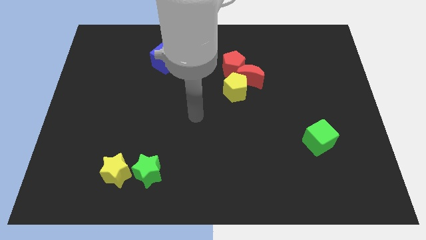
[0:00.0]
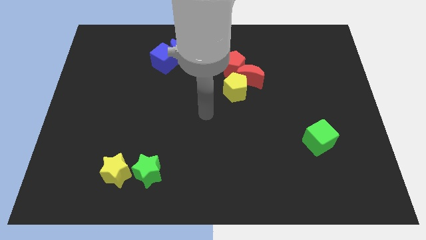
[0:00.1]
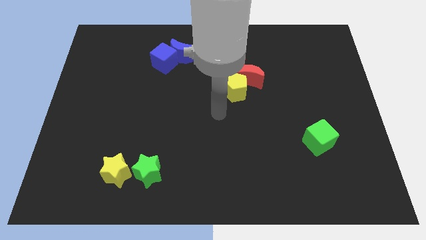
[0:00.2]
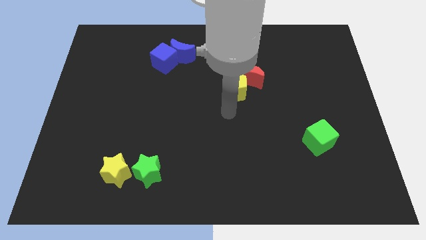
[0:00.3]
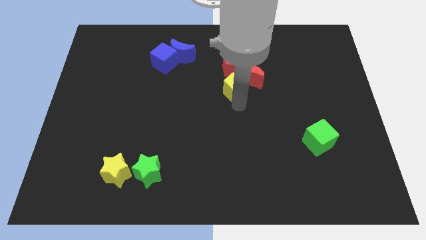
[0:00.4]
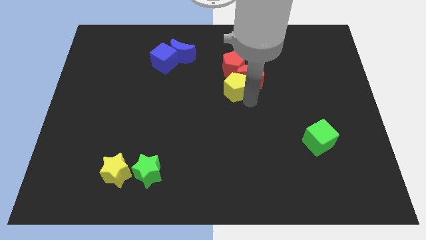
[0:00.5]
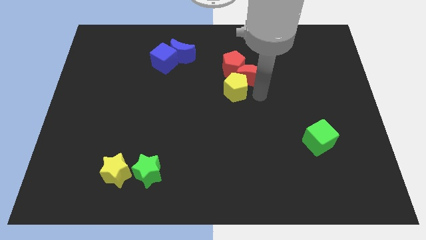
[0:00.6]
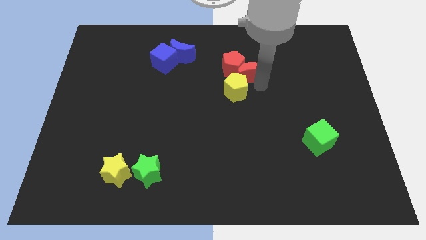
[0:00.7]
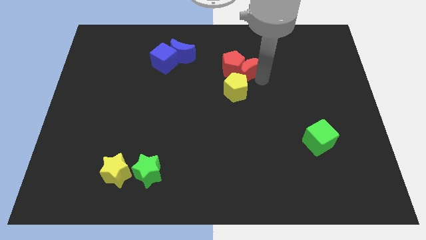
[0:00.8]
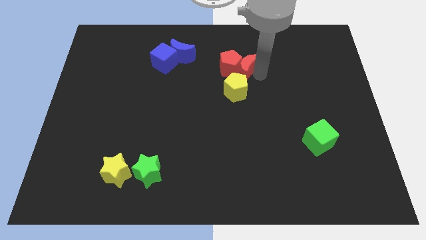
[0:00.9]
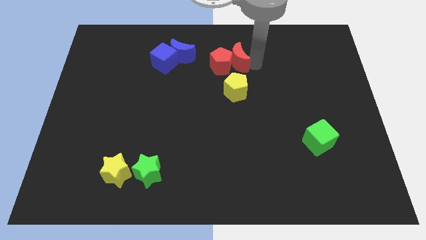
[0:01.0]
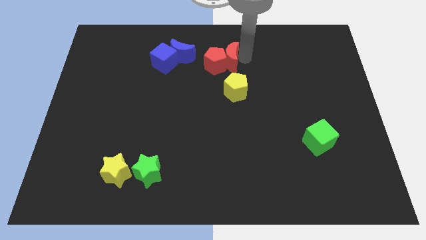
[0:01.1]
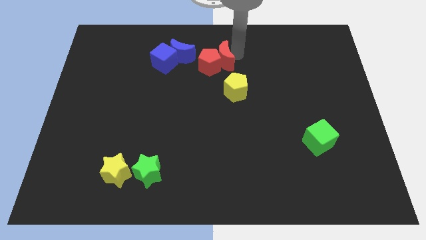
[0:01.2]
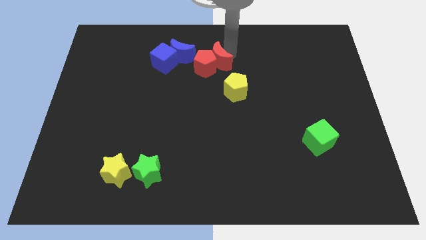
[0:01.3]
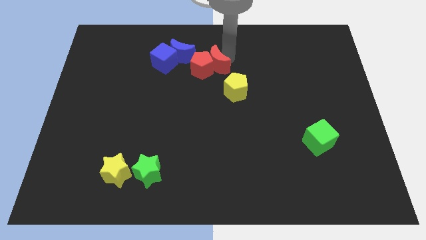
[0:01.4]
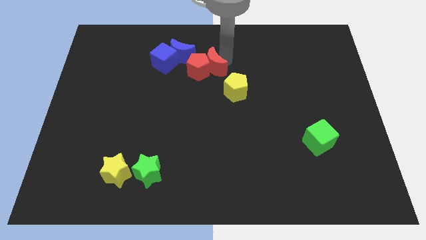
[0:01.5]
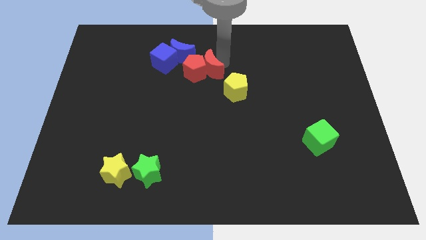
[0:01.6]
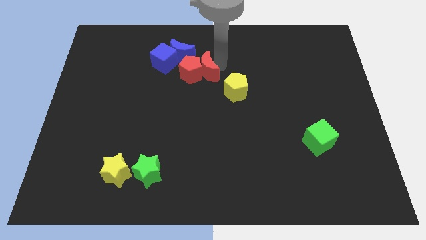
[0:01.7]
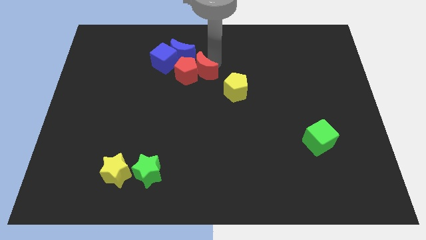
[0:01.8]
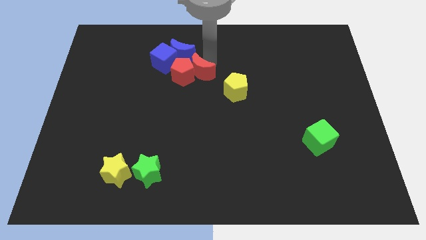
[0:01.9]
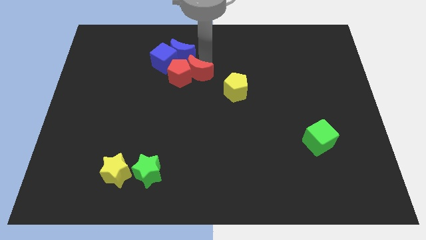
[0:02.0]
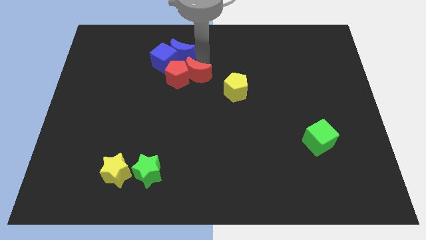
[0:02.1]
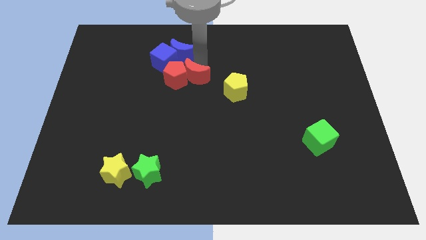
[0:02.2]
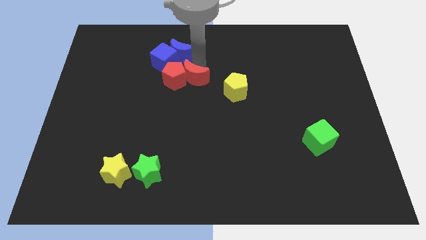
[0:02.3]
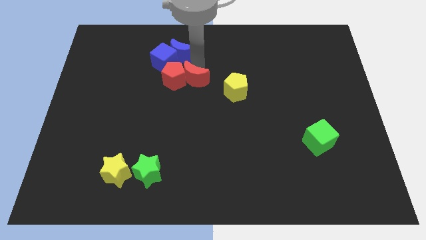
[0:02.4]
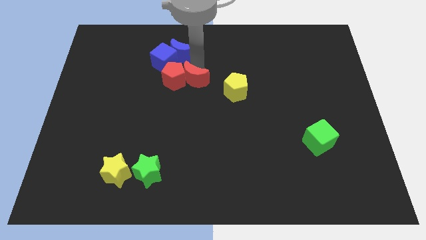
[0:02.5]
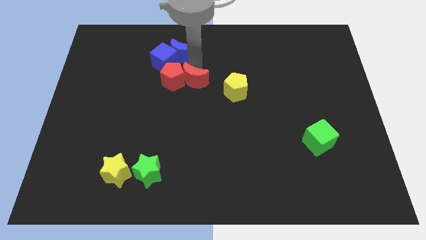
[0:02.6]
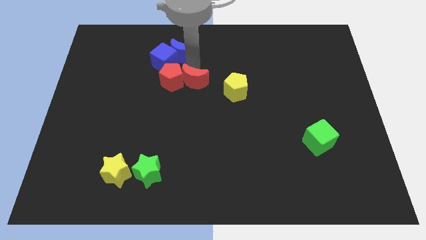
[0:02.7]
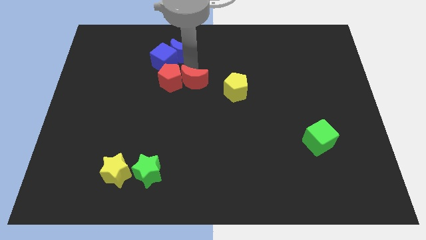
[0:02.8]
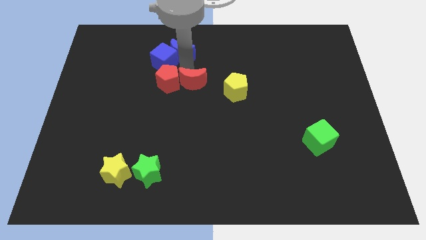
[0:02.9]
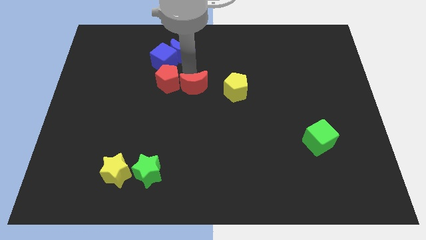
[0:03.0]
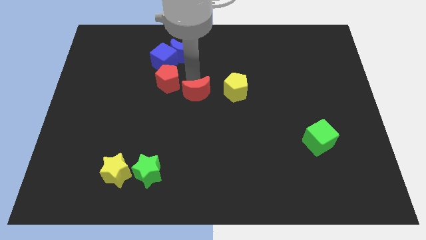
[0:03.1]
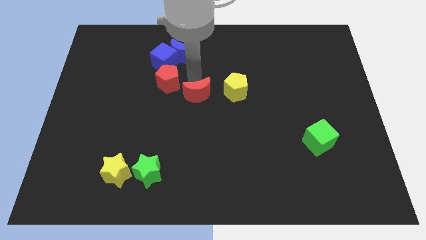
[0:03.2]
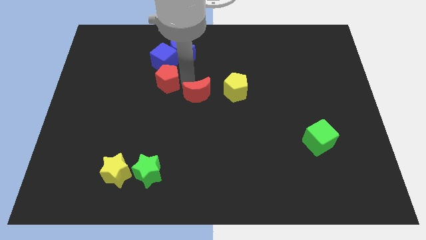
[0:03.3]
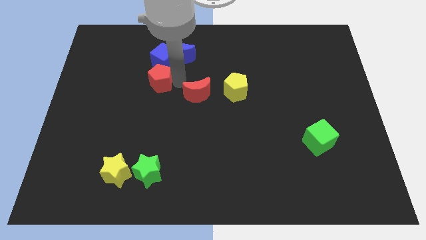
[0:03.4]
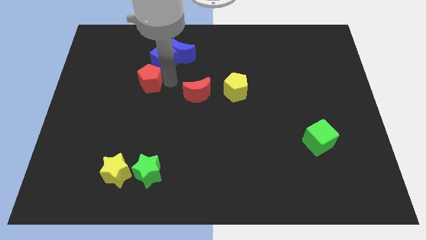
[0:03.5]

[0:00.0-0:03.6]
slide the red pentagon to the left

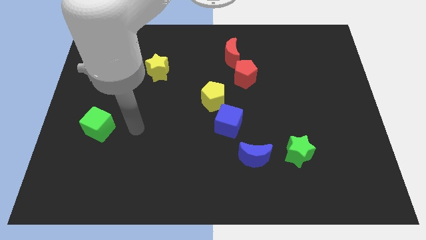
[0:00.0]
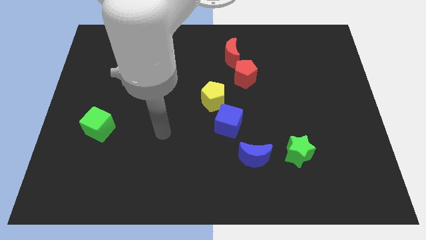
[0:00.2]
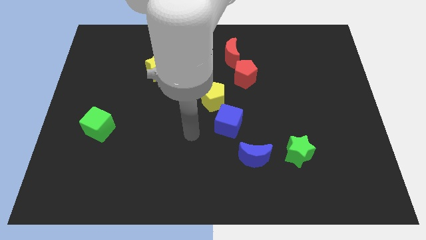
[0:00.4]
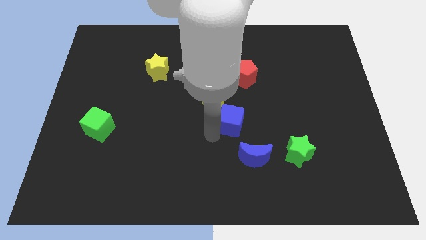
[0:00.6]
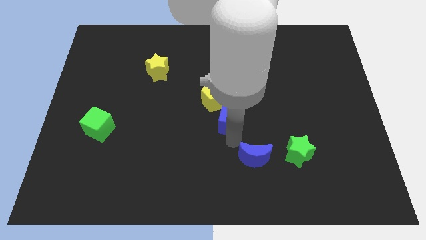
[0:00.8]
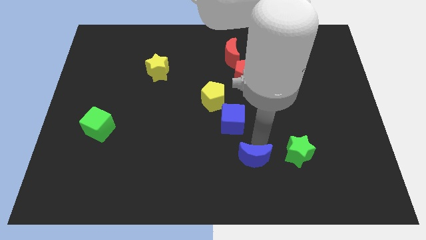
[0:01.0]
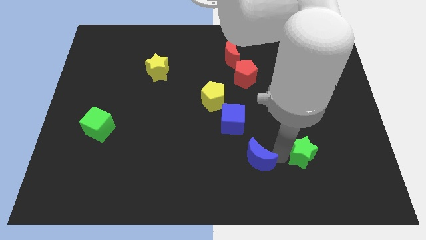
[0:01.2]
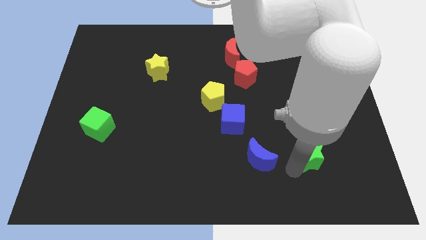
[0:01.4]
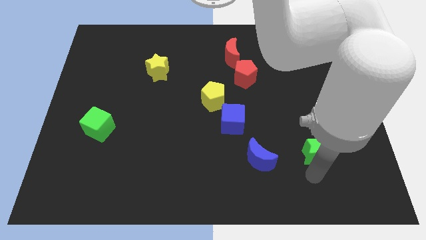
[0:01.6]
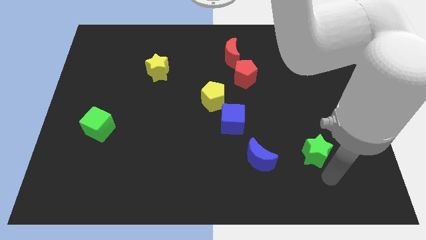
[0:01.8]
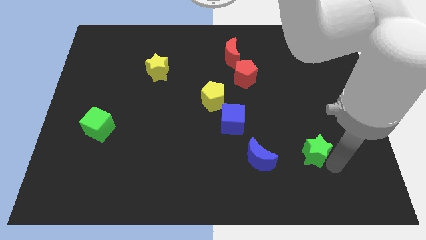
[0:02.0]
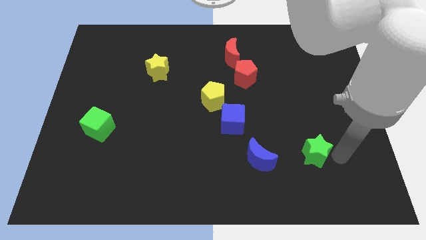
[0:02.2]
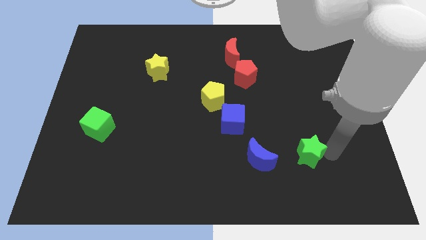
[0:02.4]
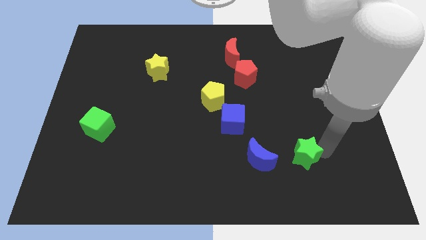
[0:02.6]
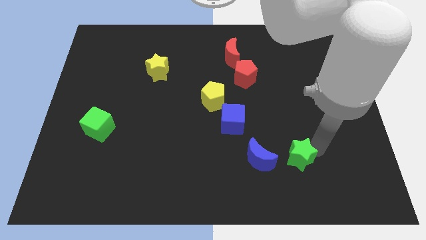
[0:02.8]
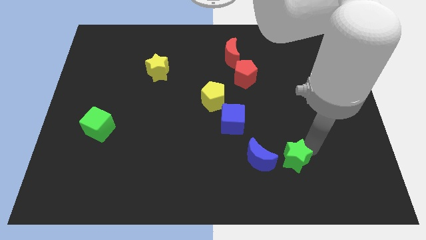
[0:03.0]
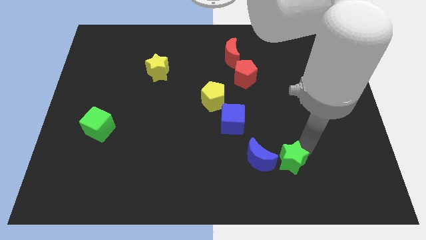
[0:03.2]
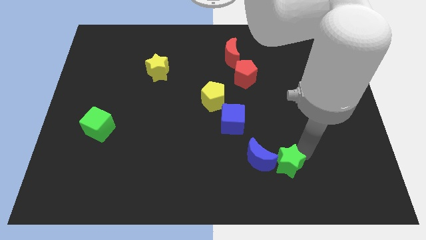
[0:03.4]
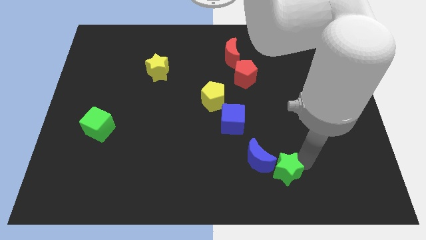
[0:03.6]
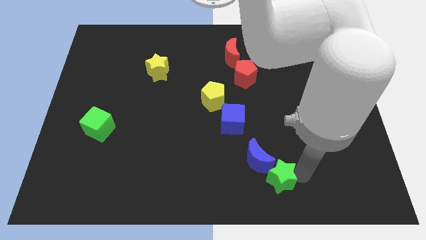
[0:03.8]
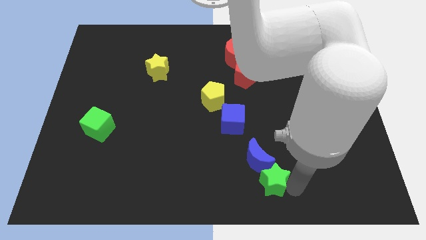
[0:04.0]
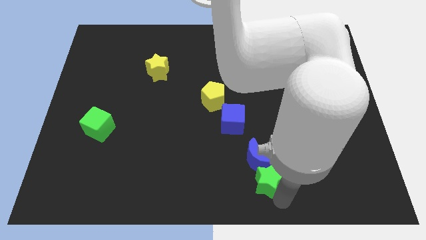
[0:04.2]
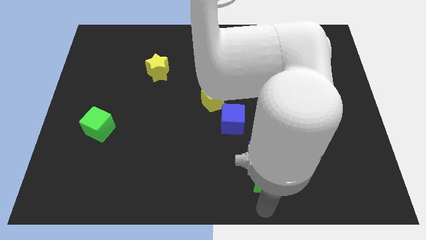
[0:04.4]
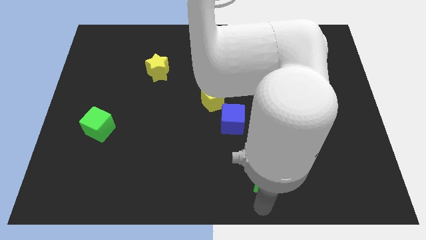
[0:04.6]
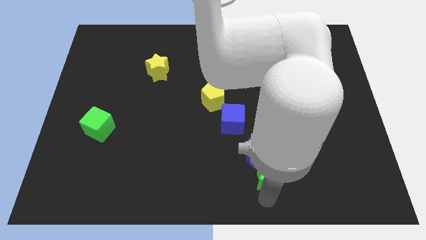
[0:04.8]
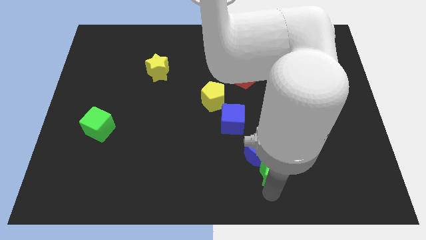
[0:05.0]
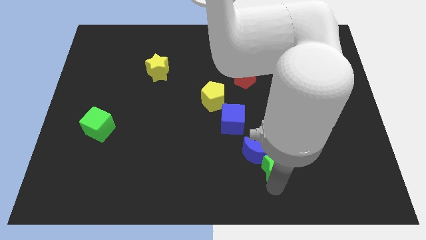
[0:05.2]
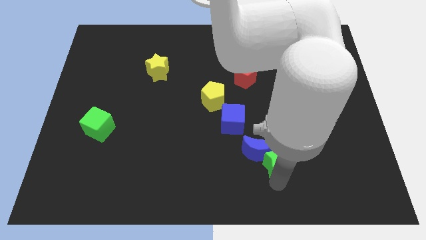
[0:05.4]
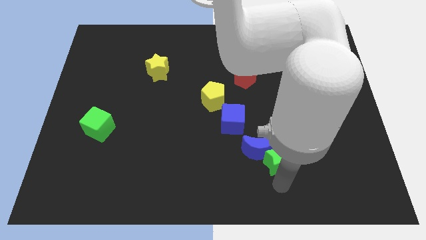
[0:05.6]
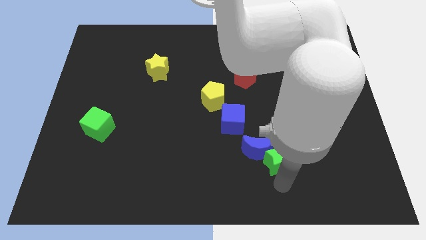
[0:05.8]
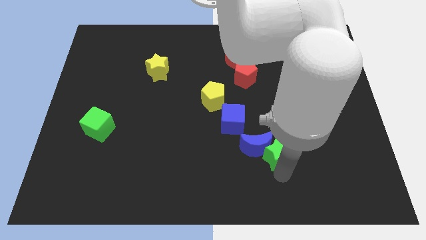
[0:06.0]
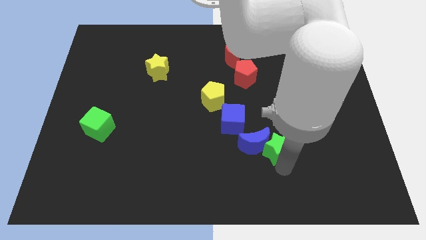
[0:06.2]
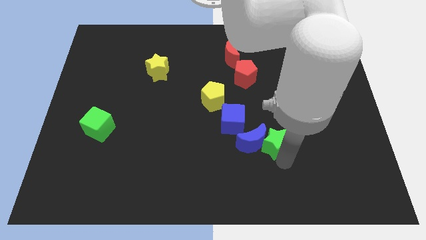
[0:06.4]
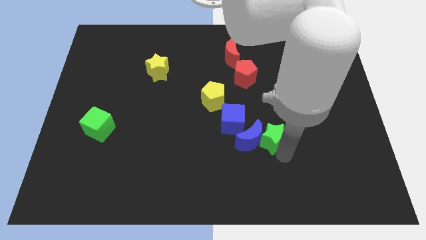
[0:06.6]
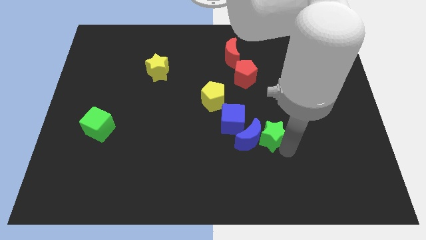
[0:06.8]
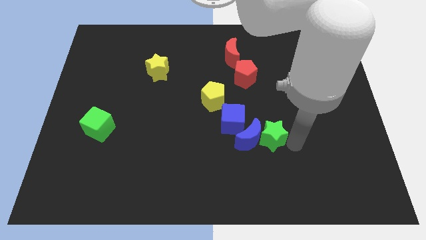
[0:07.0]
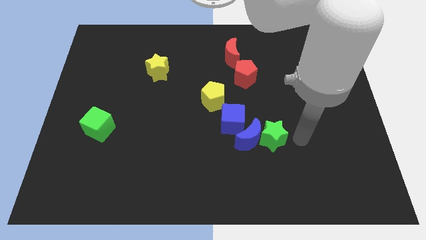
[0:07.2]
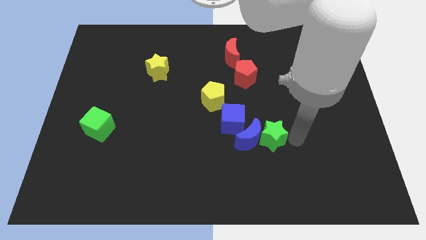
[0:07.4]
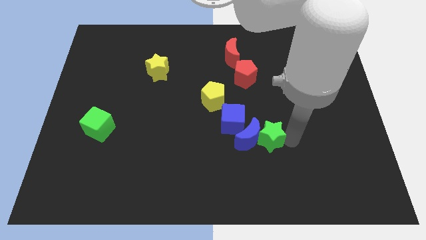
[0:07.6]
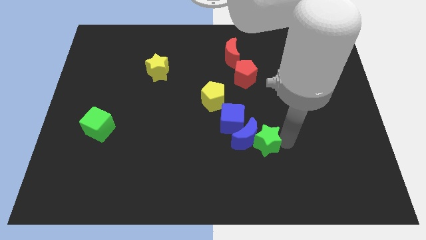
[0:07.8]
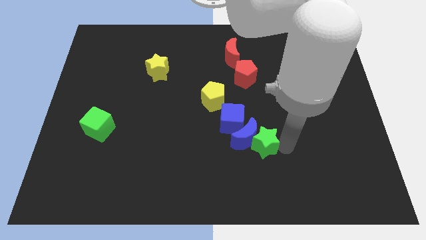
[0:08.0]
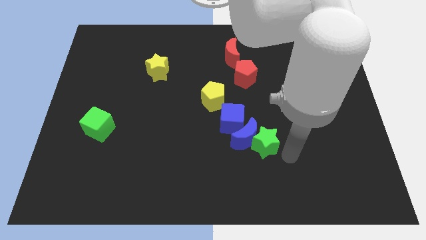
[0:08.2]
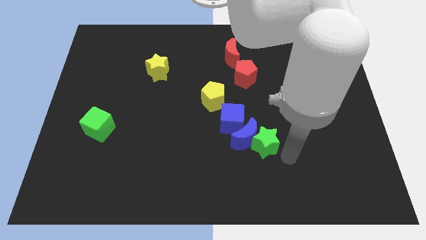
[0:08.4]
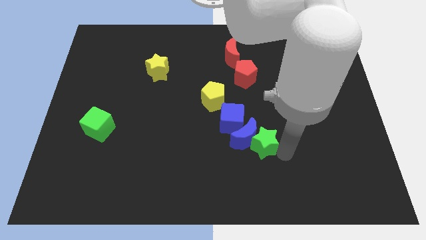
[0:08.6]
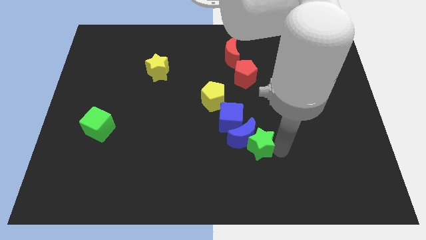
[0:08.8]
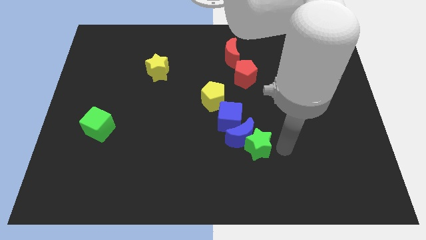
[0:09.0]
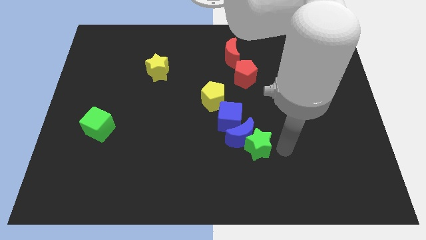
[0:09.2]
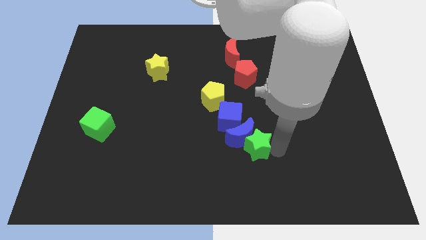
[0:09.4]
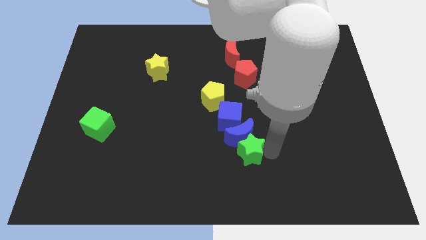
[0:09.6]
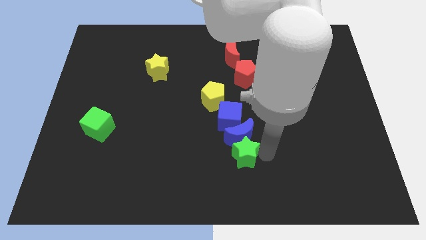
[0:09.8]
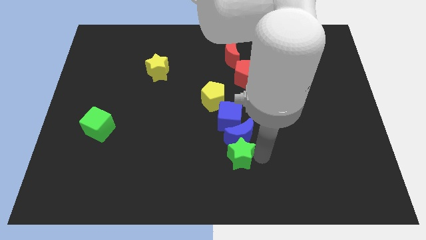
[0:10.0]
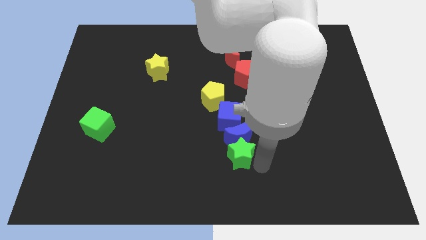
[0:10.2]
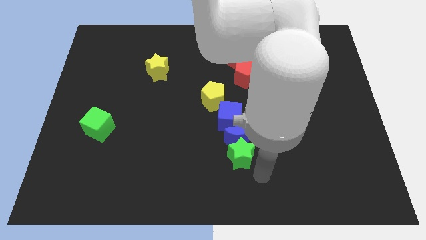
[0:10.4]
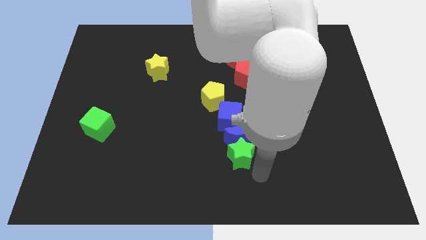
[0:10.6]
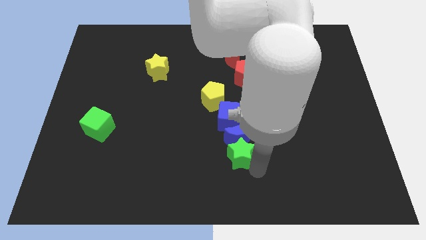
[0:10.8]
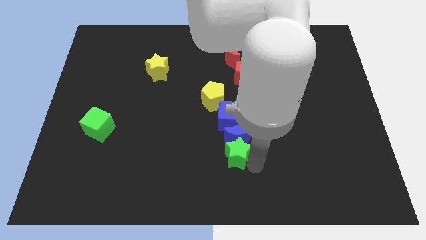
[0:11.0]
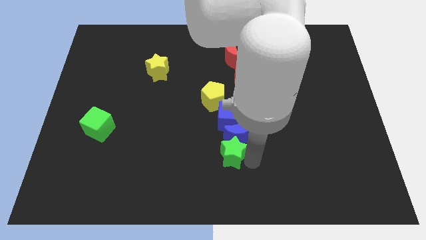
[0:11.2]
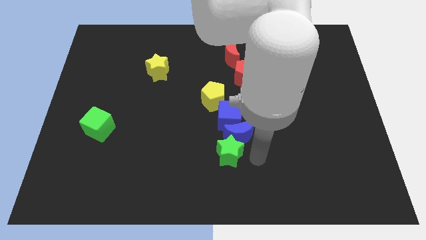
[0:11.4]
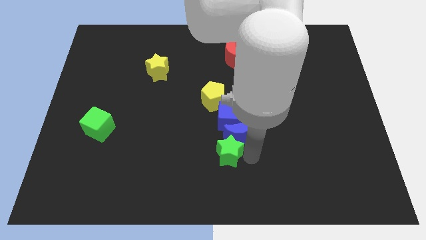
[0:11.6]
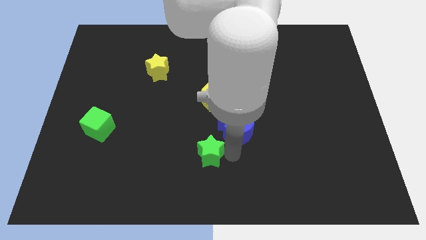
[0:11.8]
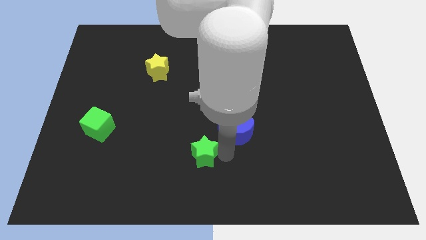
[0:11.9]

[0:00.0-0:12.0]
move the green star left
